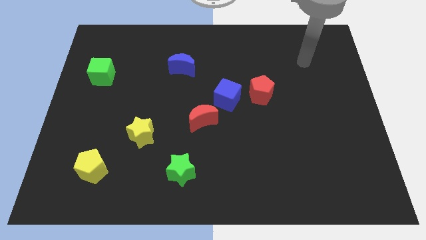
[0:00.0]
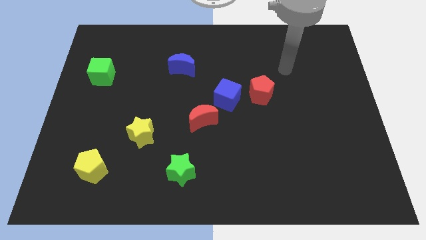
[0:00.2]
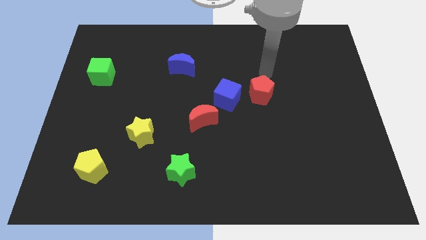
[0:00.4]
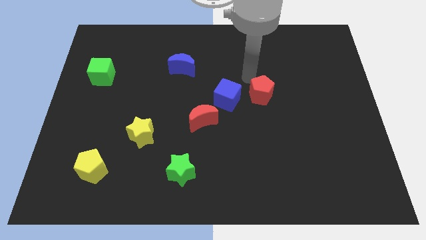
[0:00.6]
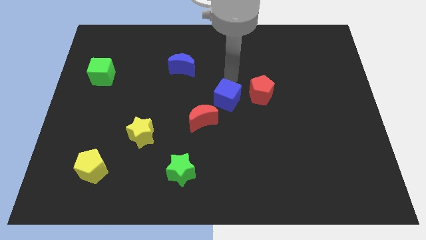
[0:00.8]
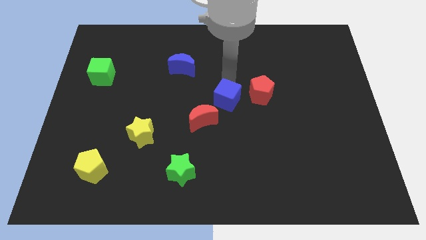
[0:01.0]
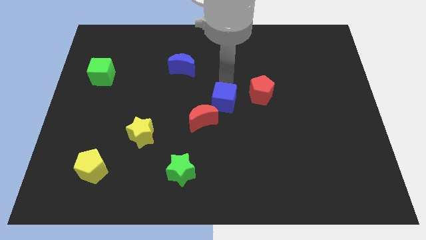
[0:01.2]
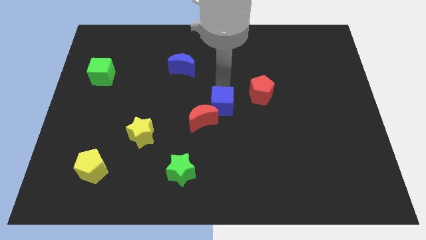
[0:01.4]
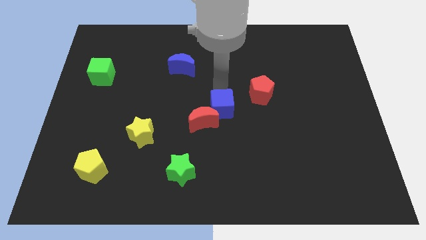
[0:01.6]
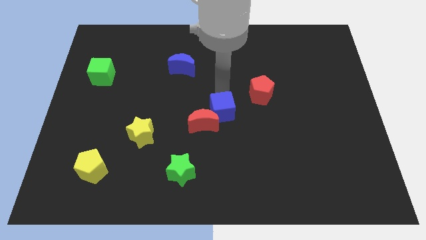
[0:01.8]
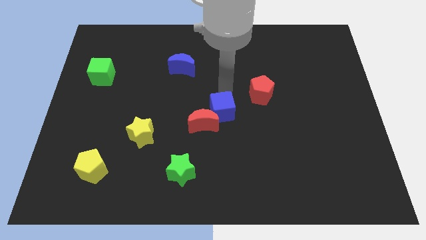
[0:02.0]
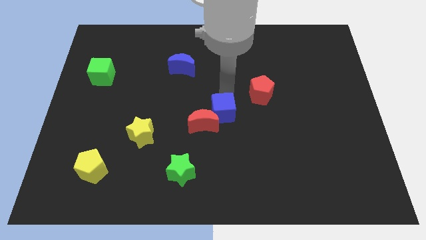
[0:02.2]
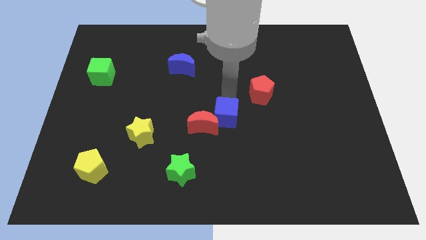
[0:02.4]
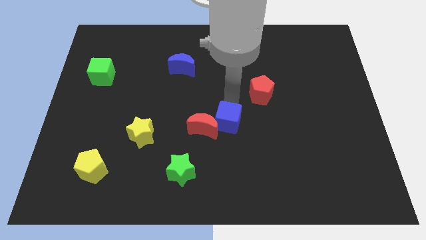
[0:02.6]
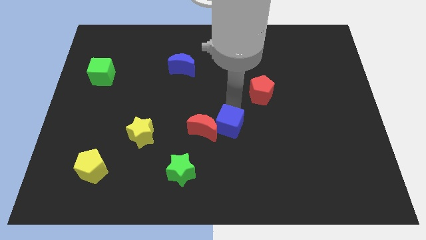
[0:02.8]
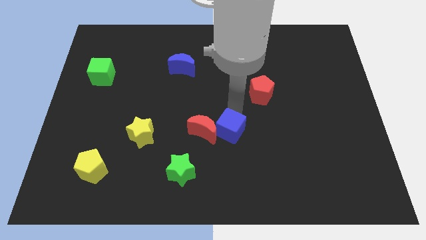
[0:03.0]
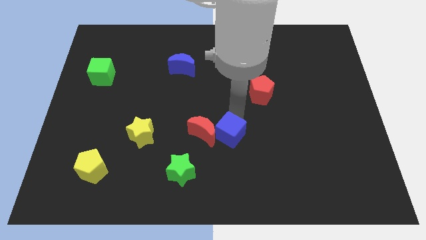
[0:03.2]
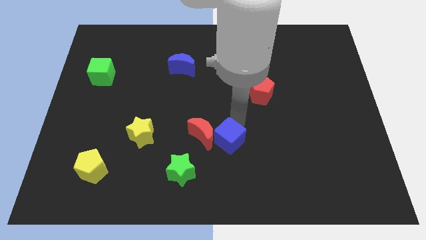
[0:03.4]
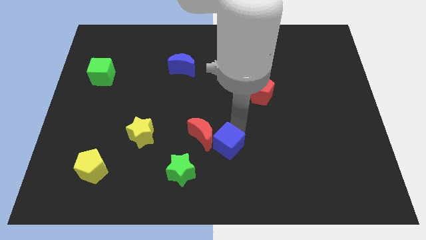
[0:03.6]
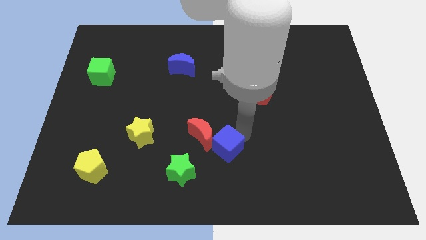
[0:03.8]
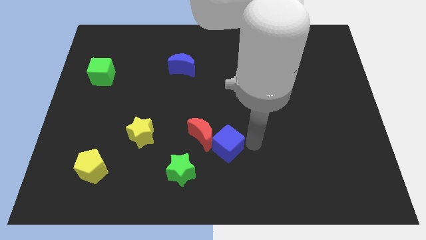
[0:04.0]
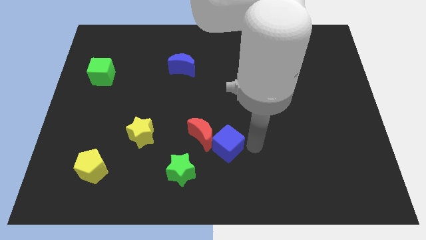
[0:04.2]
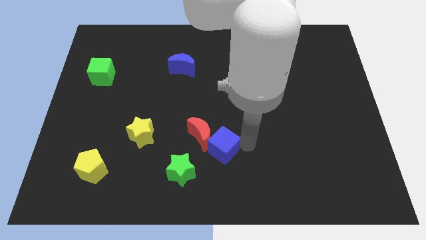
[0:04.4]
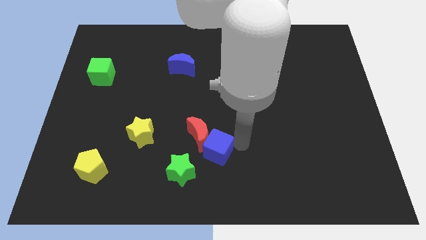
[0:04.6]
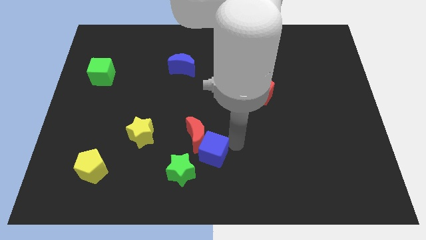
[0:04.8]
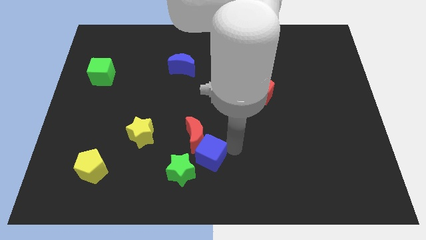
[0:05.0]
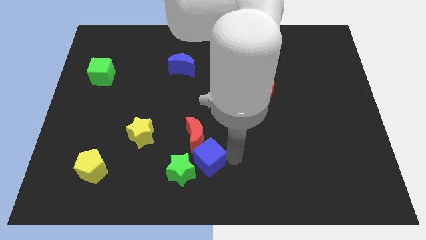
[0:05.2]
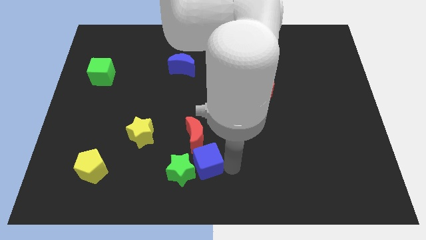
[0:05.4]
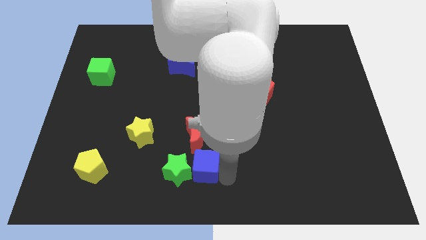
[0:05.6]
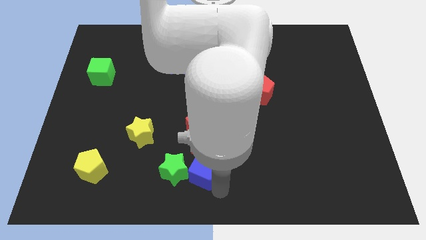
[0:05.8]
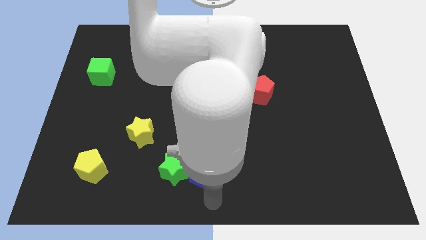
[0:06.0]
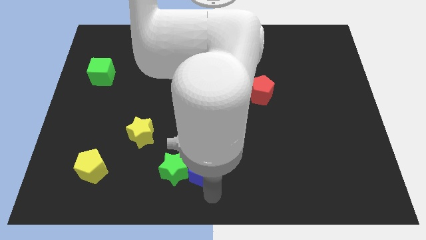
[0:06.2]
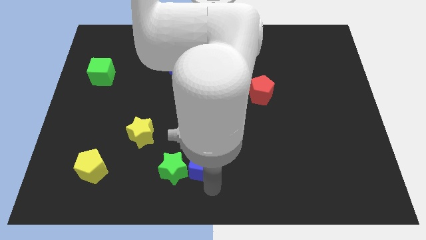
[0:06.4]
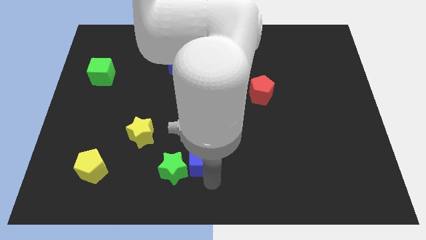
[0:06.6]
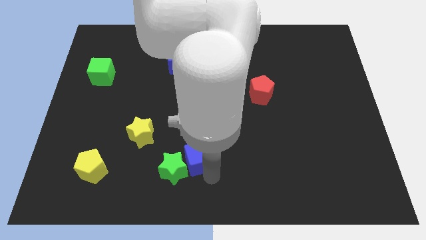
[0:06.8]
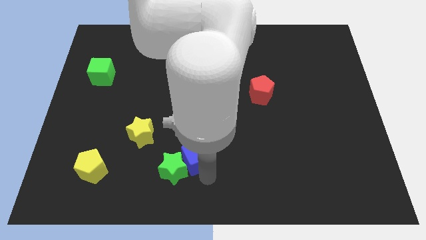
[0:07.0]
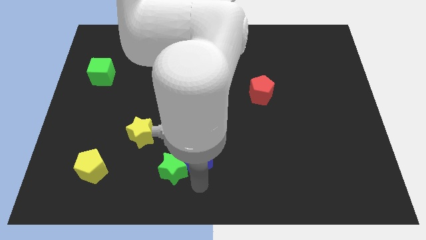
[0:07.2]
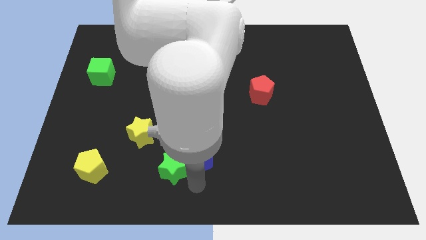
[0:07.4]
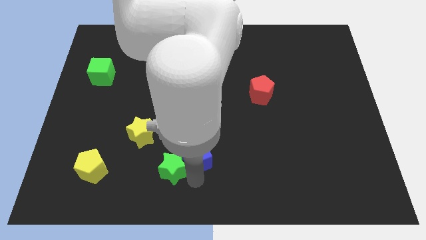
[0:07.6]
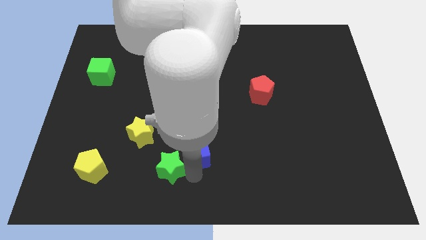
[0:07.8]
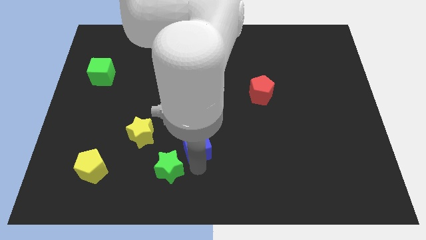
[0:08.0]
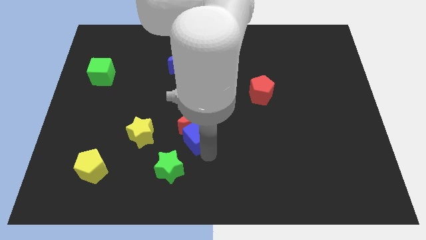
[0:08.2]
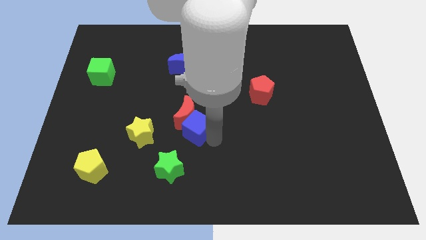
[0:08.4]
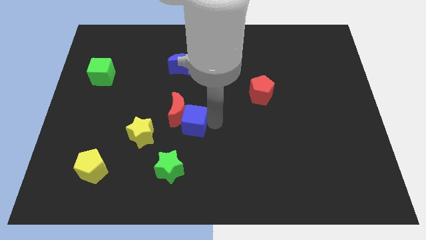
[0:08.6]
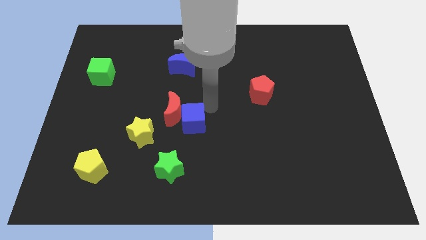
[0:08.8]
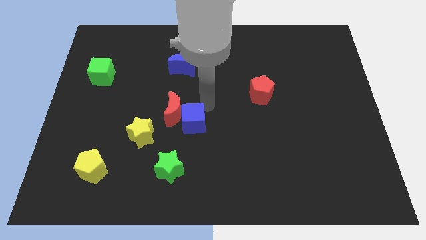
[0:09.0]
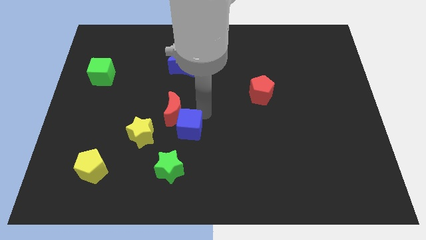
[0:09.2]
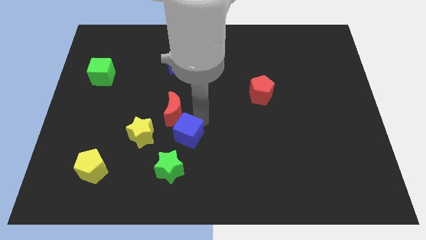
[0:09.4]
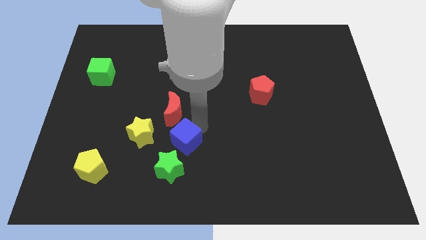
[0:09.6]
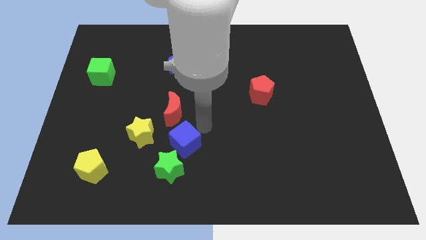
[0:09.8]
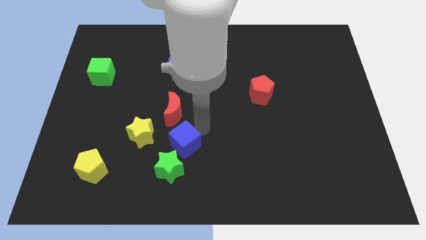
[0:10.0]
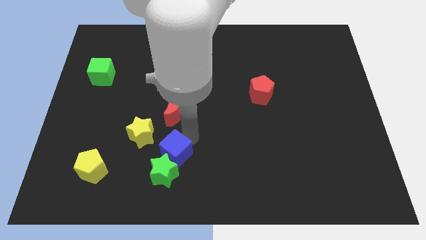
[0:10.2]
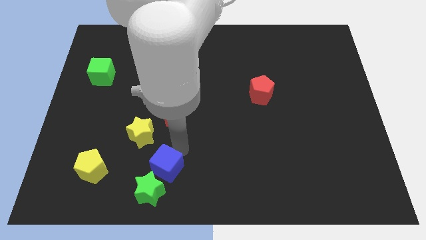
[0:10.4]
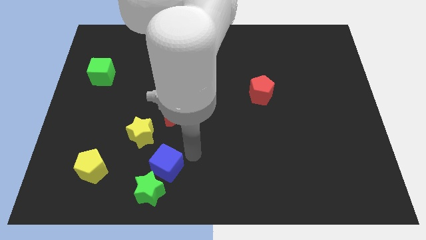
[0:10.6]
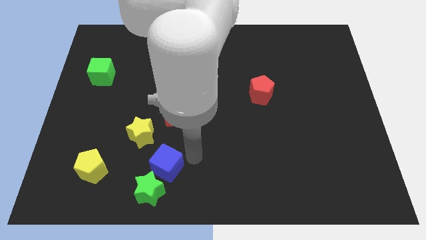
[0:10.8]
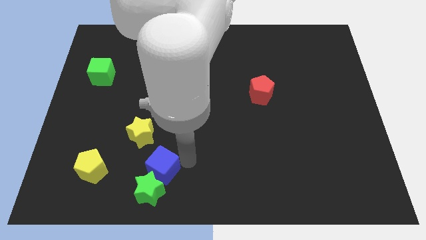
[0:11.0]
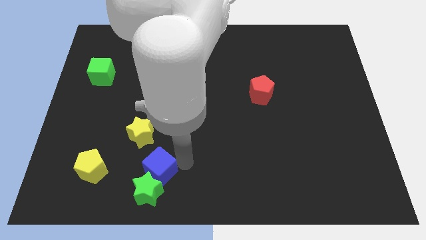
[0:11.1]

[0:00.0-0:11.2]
slide the blue cube below the yellow star

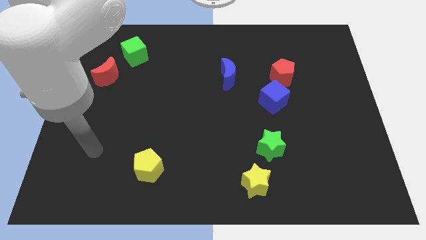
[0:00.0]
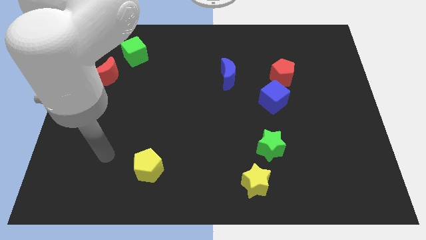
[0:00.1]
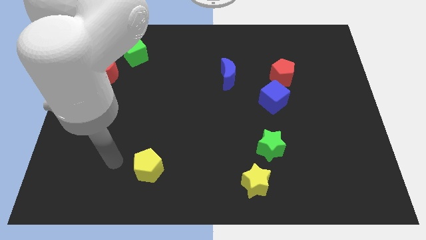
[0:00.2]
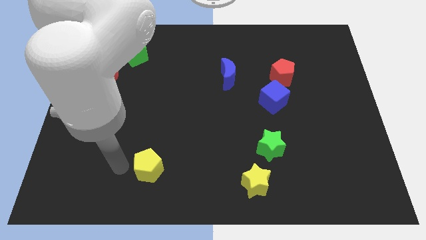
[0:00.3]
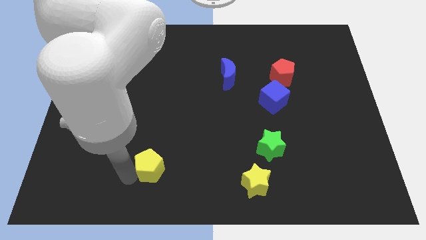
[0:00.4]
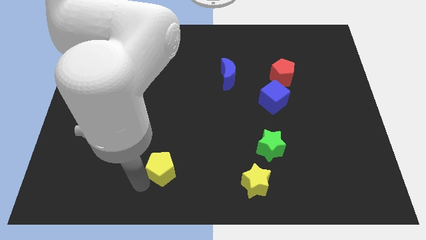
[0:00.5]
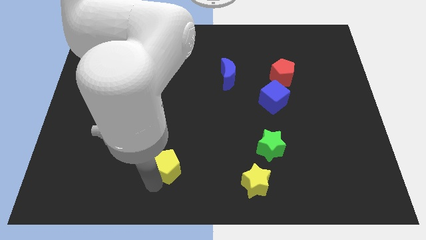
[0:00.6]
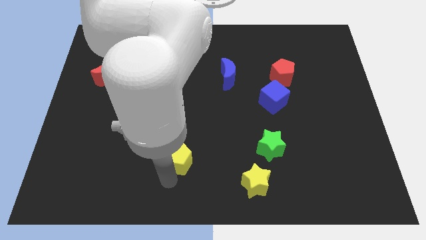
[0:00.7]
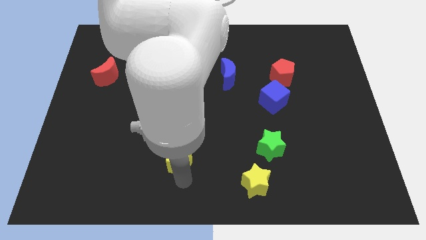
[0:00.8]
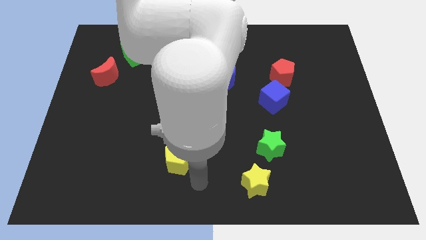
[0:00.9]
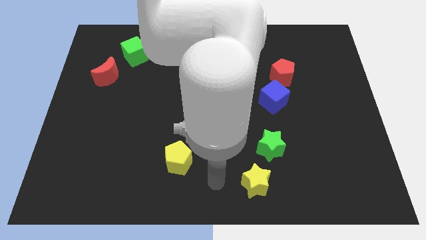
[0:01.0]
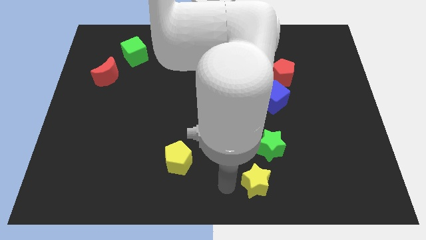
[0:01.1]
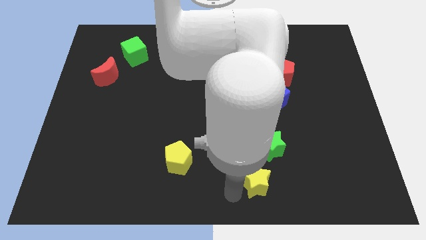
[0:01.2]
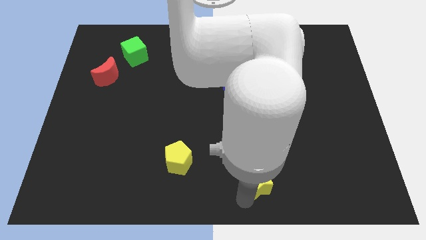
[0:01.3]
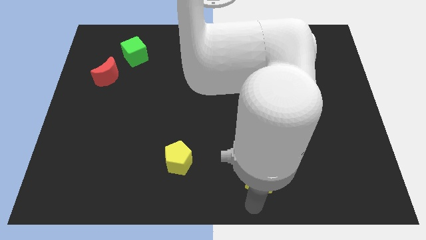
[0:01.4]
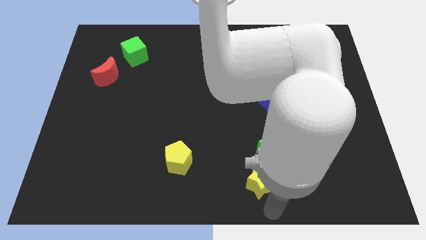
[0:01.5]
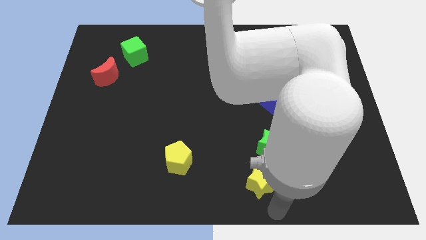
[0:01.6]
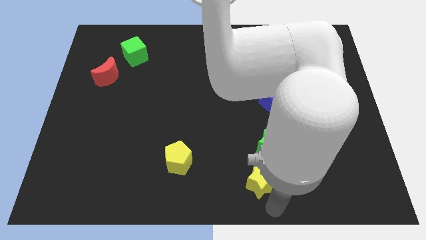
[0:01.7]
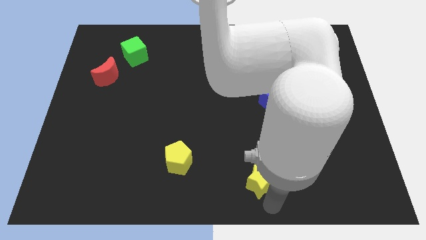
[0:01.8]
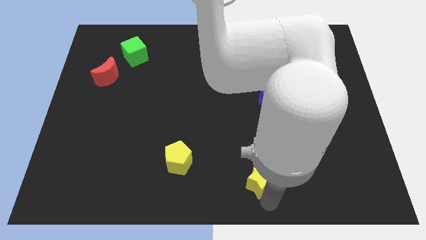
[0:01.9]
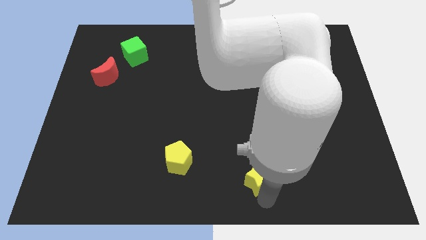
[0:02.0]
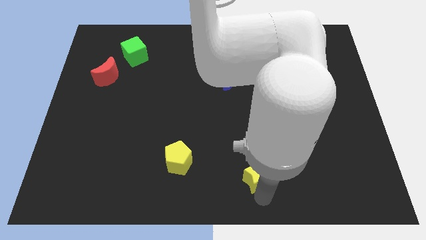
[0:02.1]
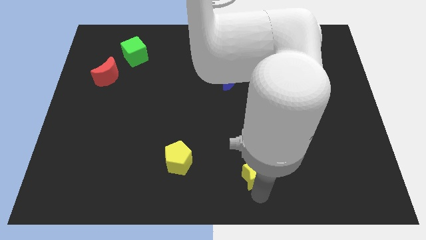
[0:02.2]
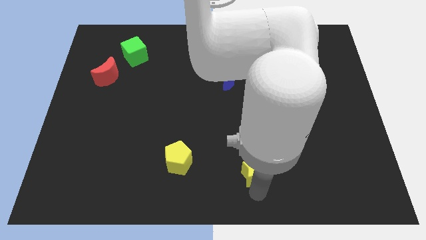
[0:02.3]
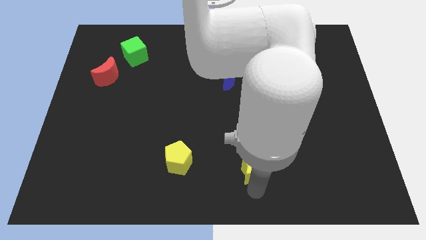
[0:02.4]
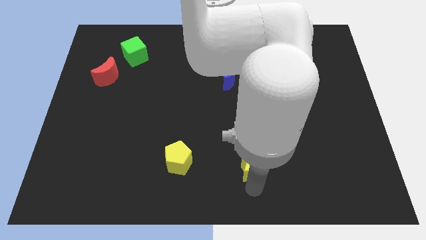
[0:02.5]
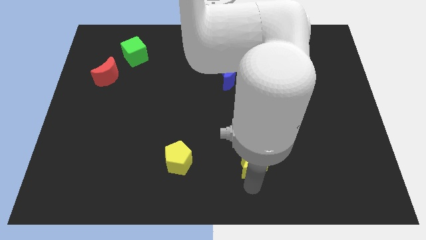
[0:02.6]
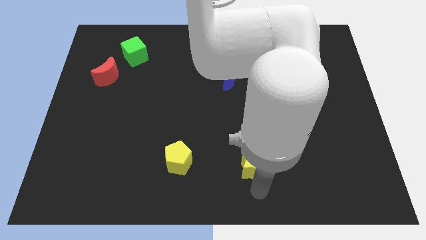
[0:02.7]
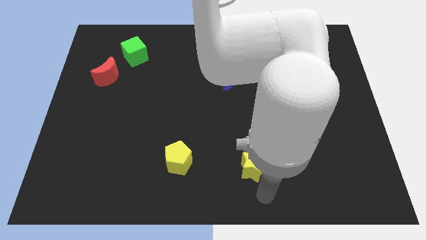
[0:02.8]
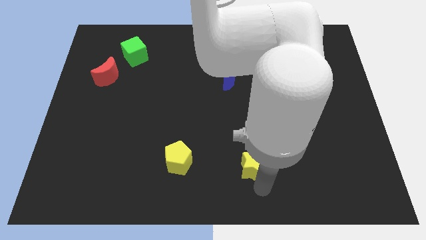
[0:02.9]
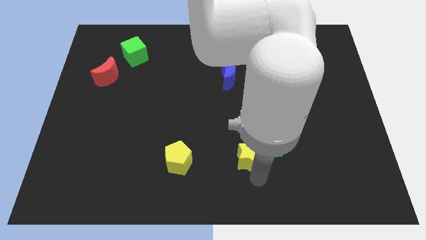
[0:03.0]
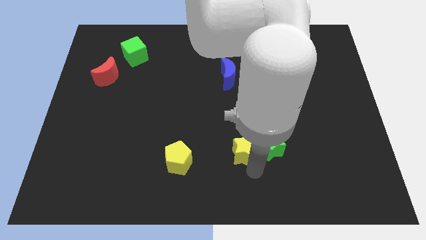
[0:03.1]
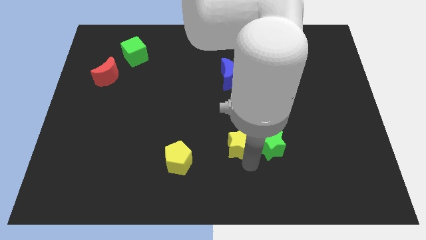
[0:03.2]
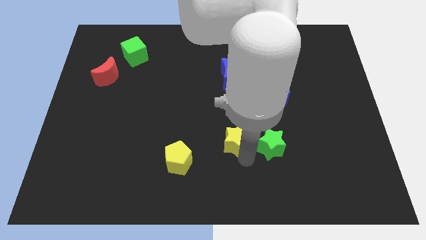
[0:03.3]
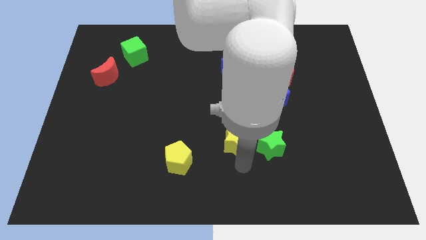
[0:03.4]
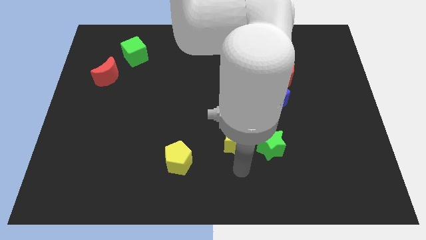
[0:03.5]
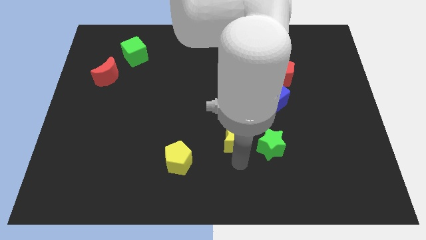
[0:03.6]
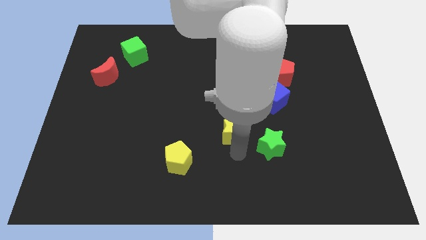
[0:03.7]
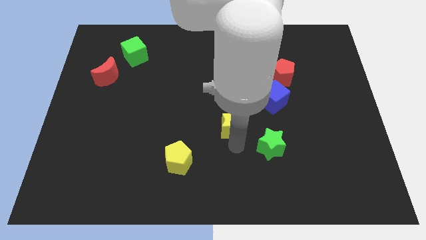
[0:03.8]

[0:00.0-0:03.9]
push the yellow star to the bottom side of the blue moon
